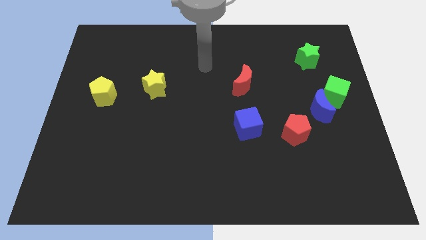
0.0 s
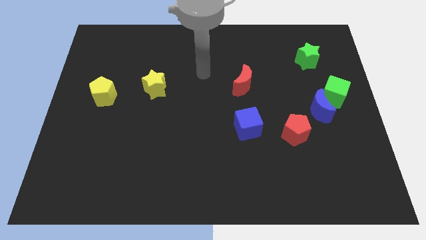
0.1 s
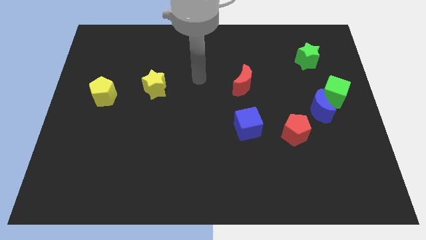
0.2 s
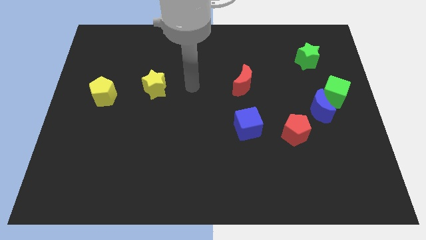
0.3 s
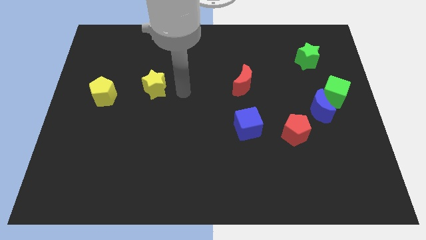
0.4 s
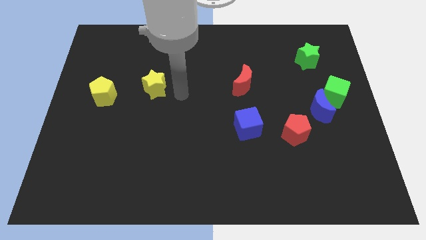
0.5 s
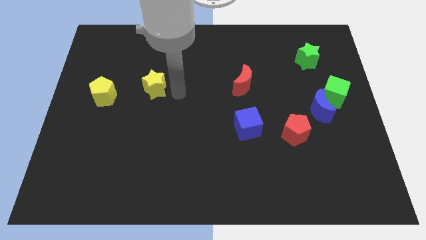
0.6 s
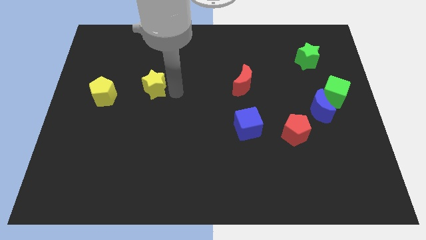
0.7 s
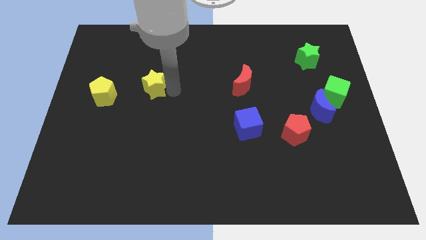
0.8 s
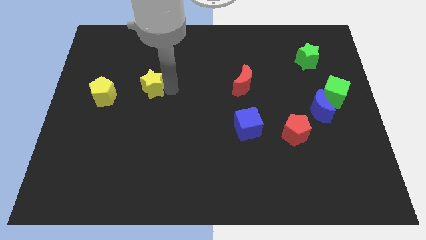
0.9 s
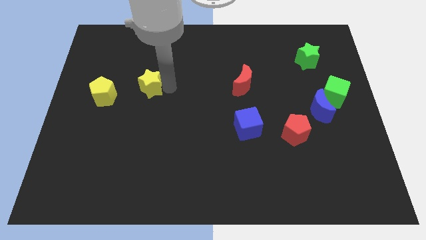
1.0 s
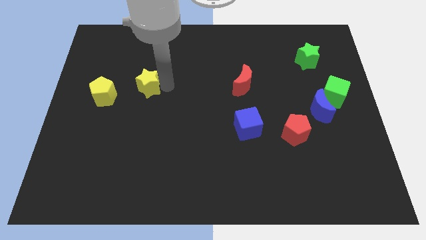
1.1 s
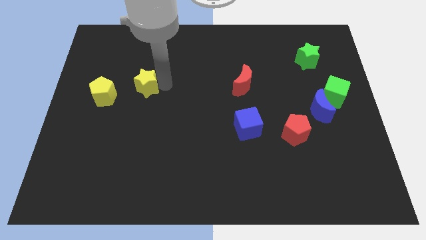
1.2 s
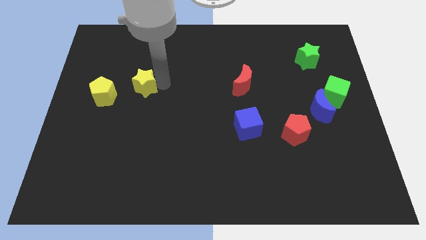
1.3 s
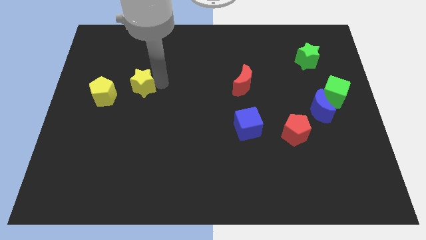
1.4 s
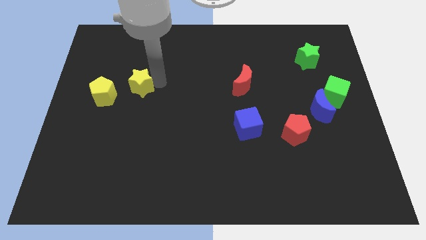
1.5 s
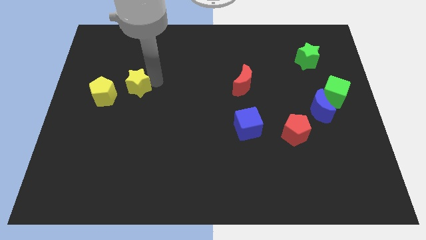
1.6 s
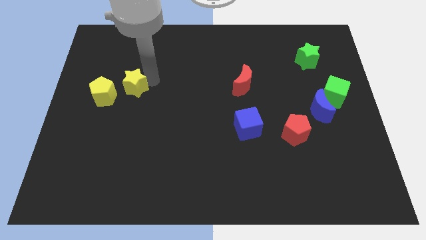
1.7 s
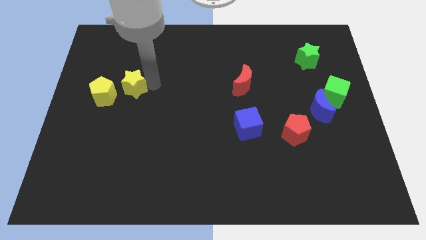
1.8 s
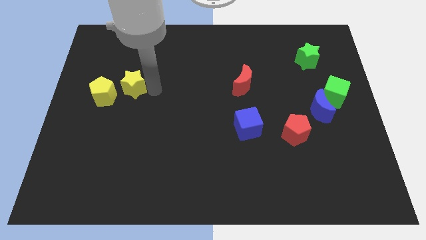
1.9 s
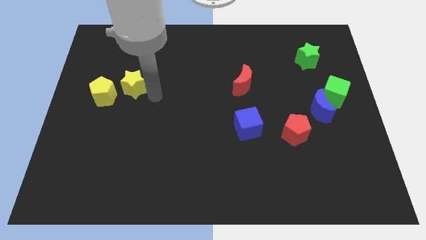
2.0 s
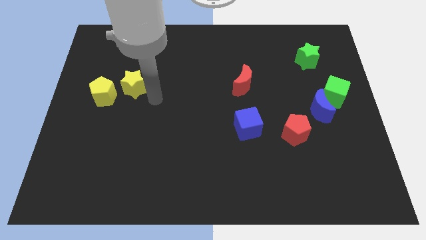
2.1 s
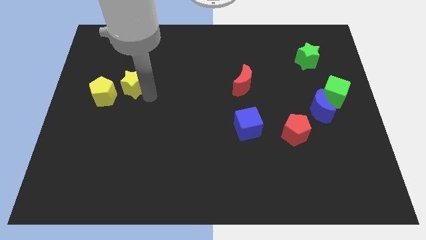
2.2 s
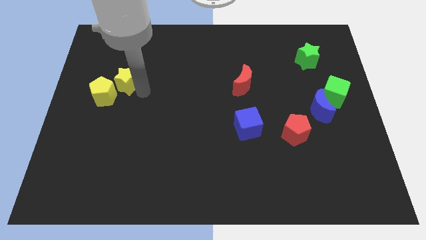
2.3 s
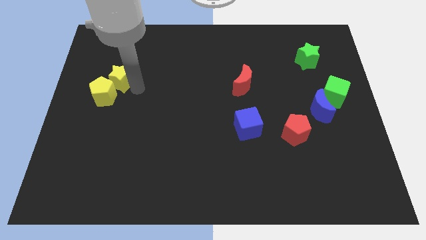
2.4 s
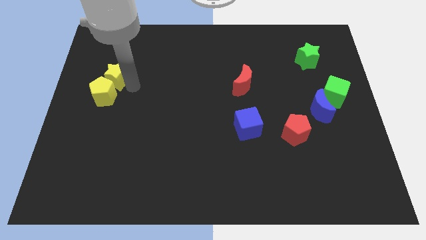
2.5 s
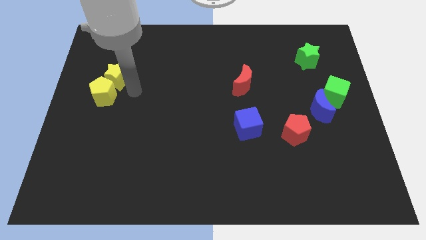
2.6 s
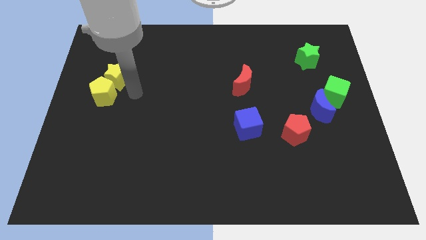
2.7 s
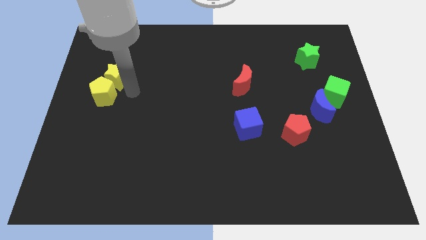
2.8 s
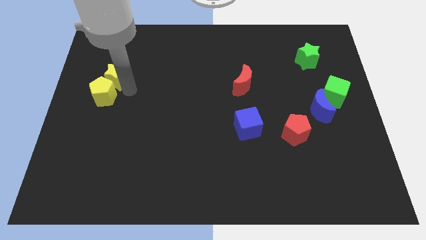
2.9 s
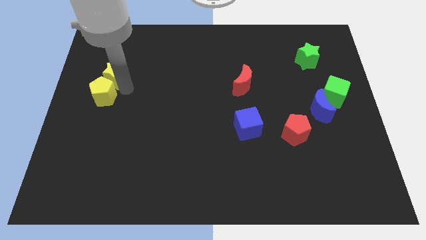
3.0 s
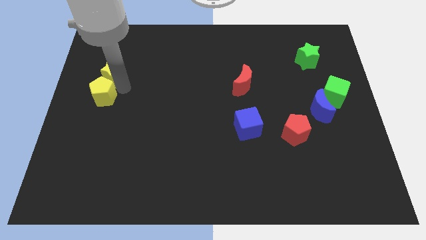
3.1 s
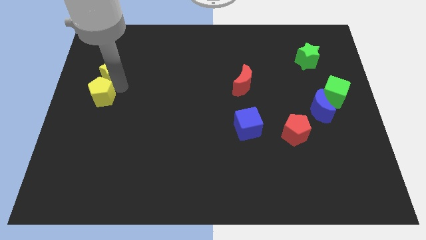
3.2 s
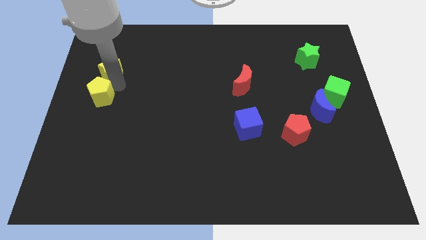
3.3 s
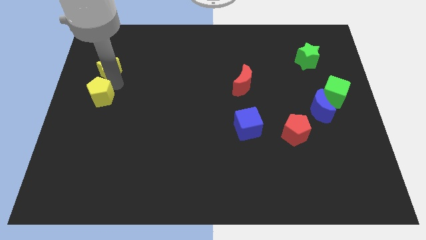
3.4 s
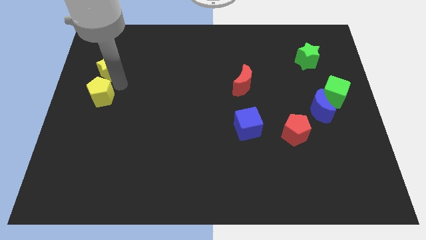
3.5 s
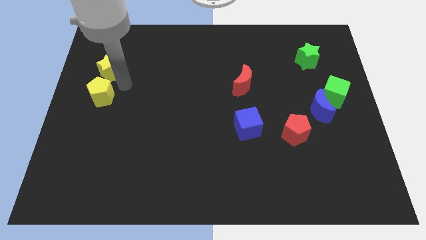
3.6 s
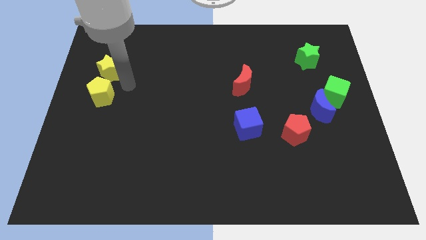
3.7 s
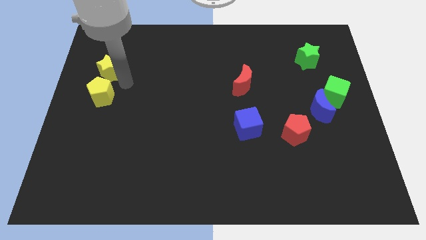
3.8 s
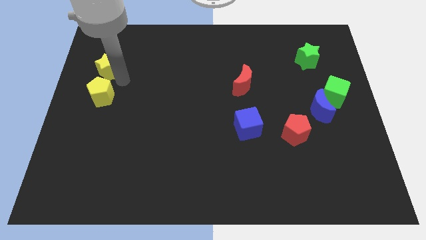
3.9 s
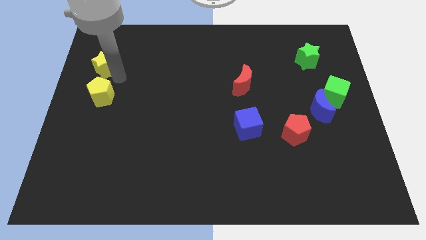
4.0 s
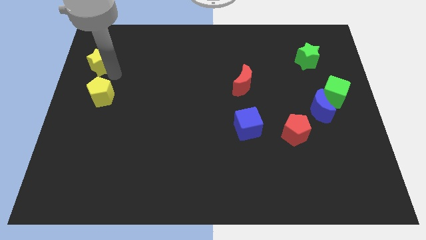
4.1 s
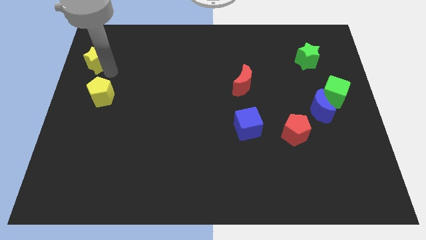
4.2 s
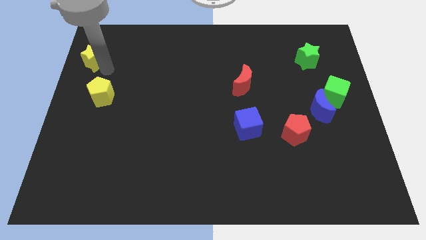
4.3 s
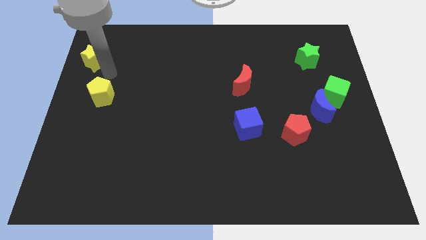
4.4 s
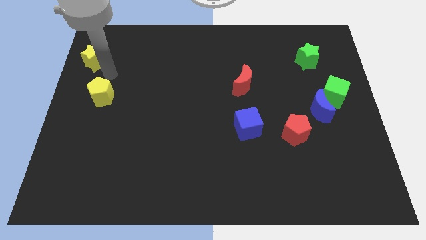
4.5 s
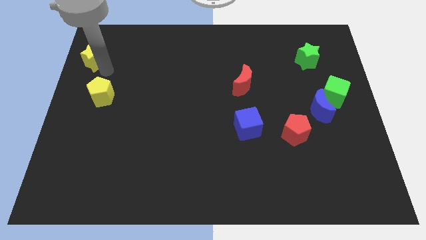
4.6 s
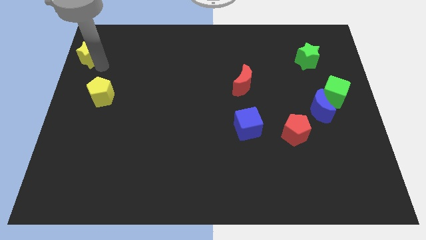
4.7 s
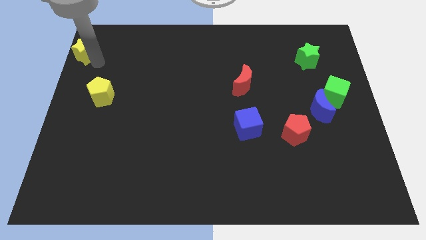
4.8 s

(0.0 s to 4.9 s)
put the yellow star to the upper left corner

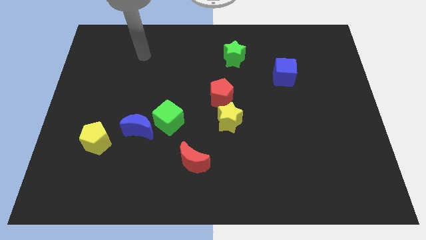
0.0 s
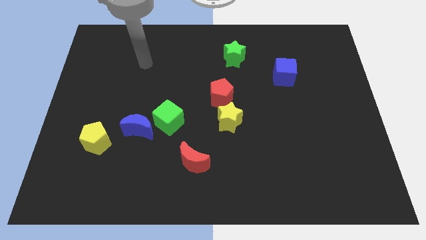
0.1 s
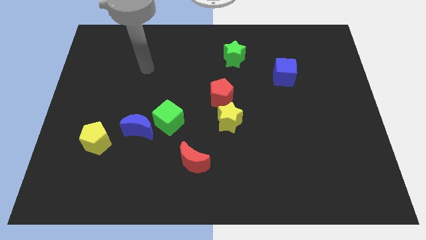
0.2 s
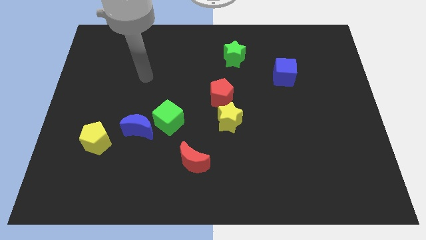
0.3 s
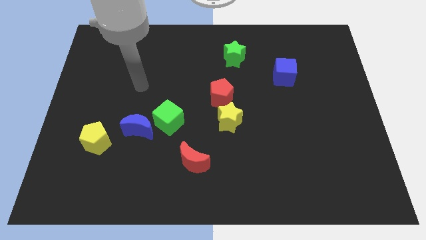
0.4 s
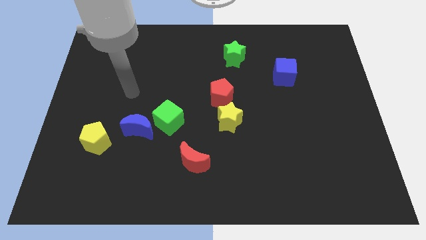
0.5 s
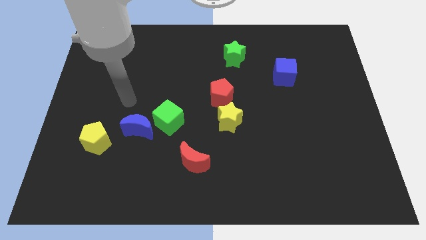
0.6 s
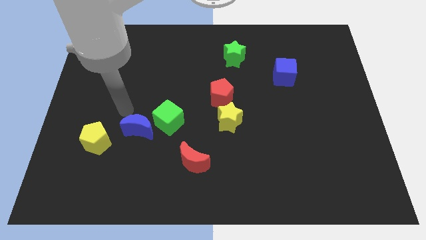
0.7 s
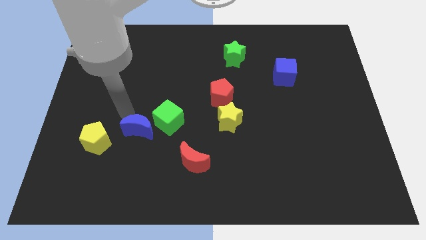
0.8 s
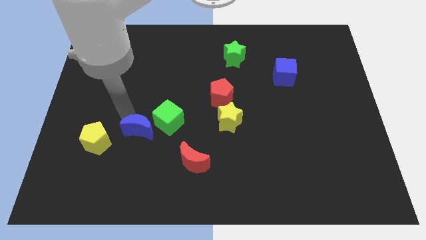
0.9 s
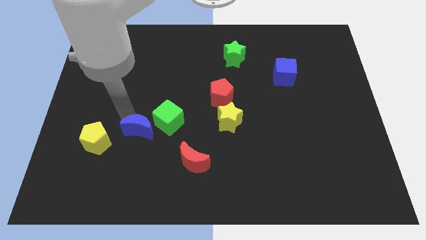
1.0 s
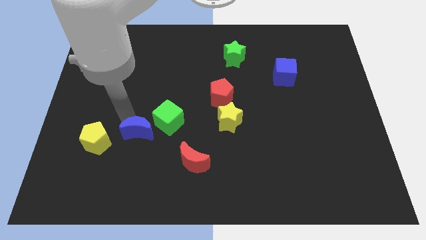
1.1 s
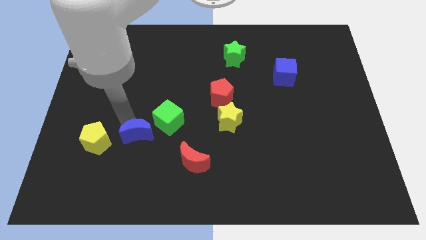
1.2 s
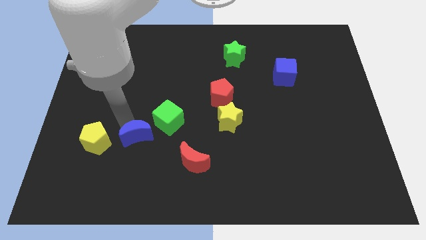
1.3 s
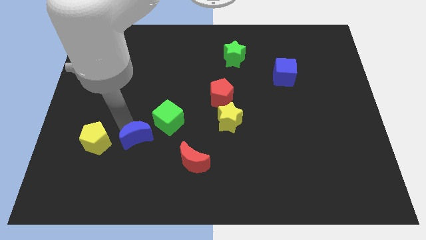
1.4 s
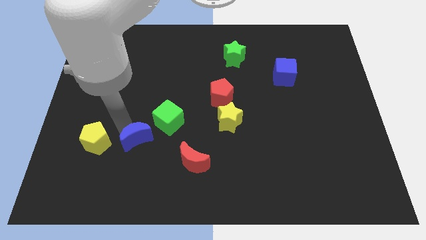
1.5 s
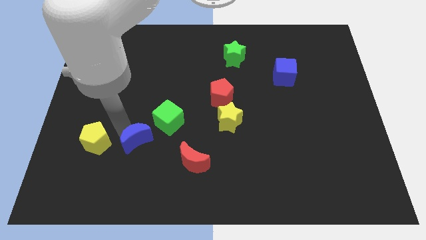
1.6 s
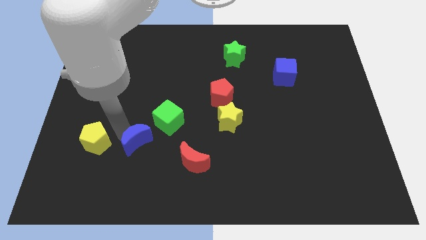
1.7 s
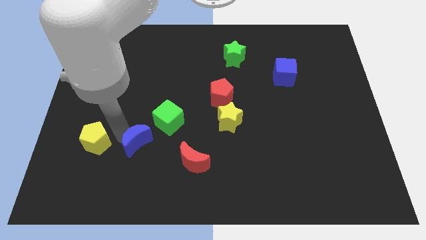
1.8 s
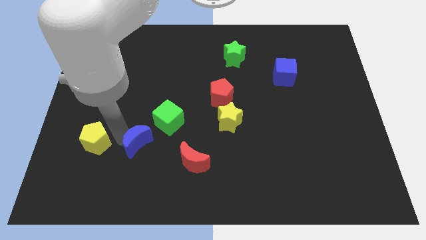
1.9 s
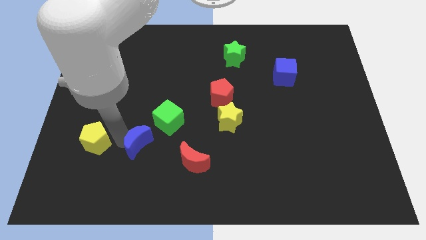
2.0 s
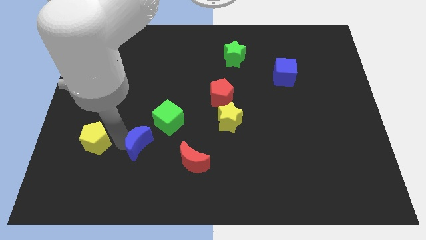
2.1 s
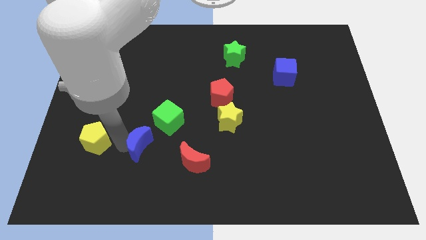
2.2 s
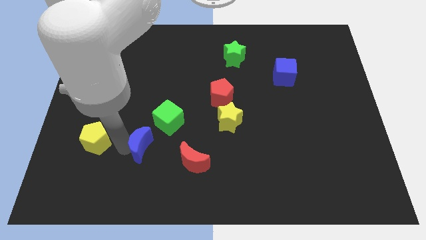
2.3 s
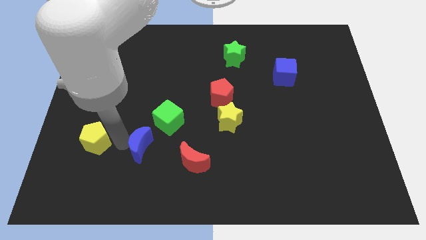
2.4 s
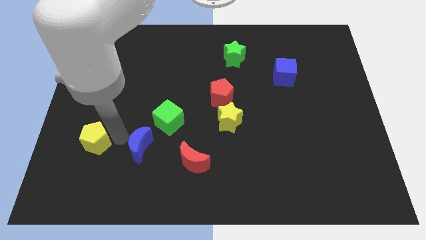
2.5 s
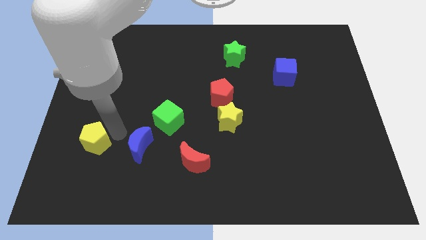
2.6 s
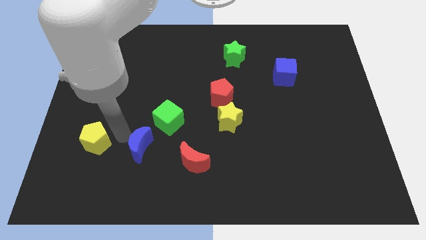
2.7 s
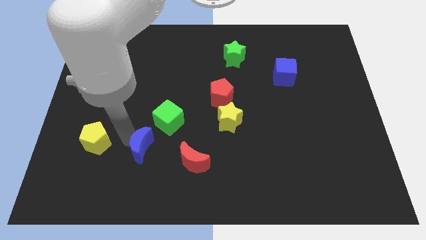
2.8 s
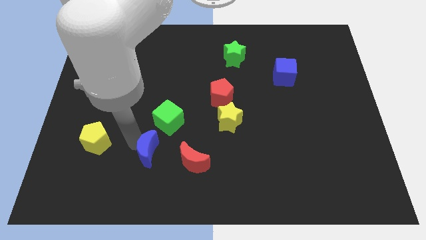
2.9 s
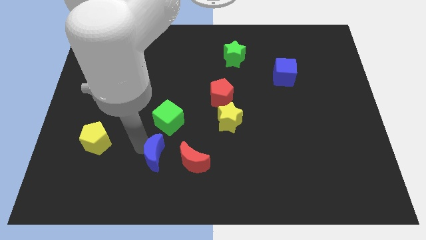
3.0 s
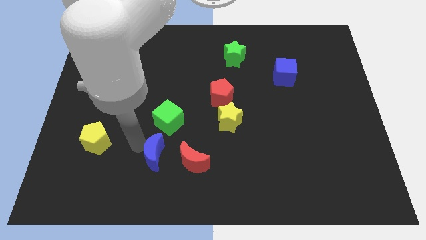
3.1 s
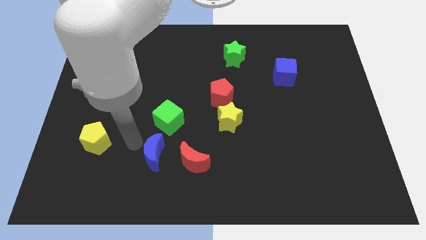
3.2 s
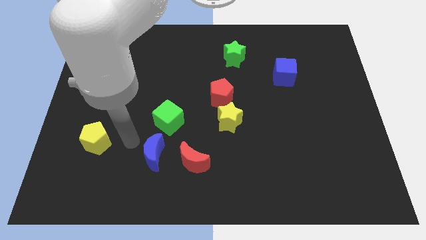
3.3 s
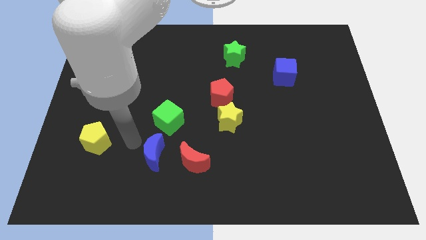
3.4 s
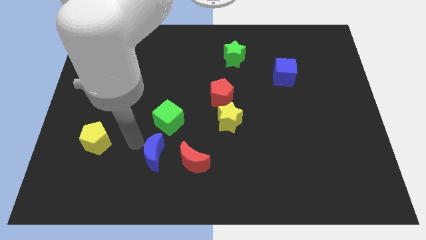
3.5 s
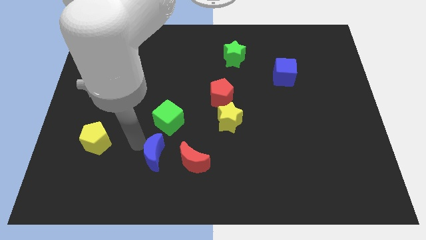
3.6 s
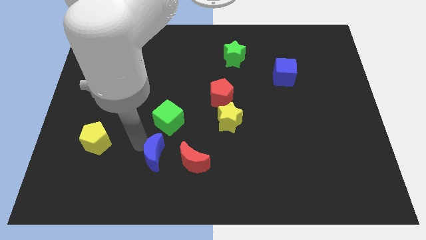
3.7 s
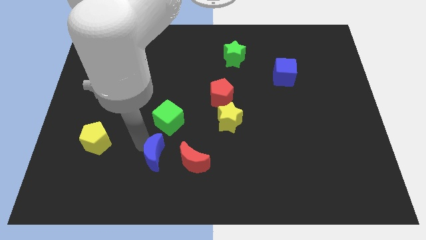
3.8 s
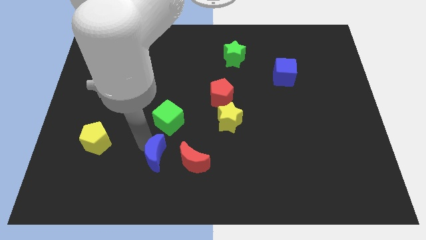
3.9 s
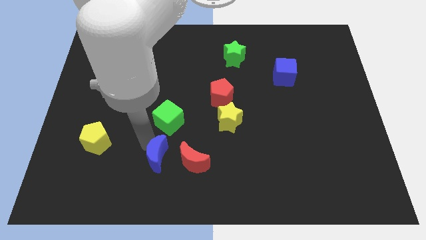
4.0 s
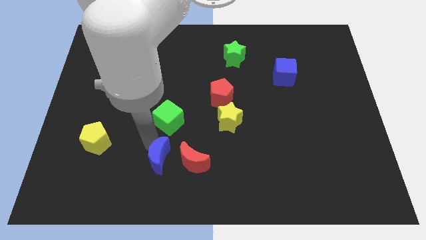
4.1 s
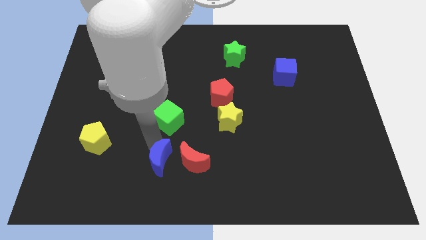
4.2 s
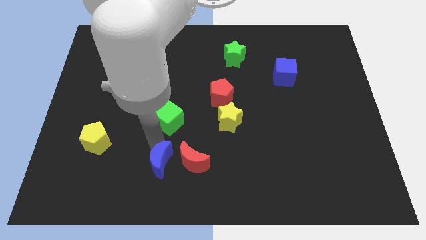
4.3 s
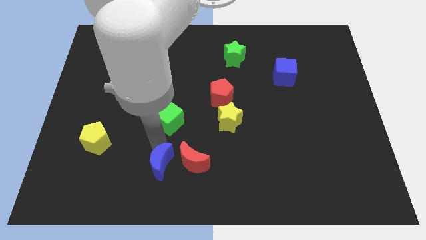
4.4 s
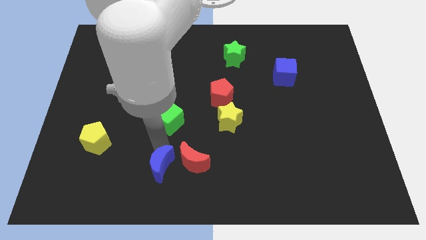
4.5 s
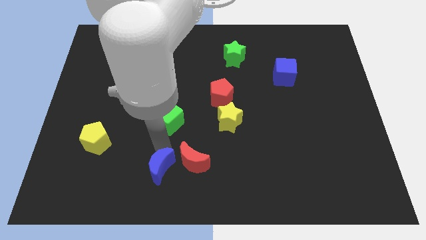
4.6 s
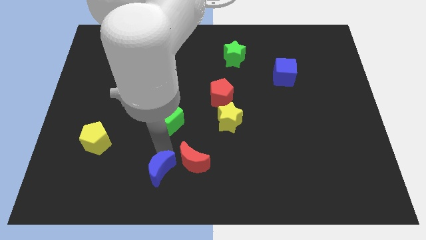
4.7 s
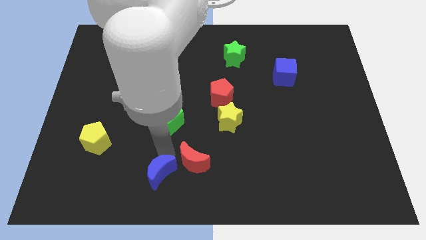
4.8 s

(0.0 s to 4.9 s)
move the blue moon to the bottom side
